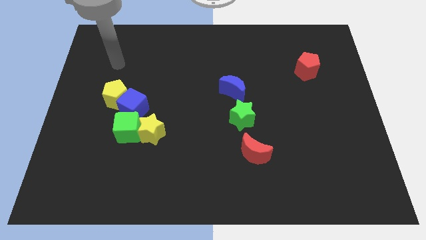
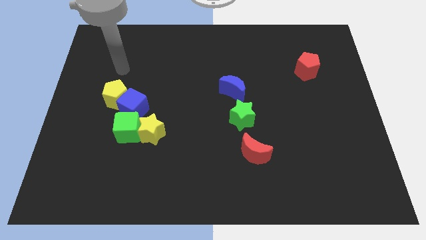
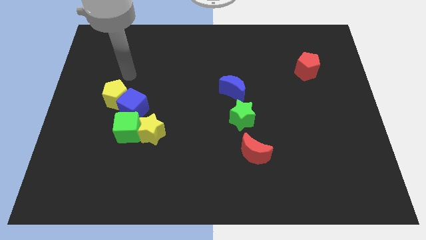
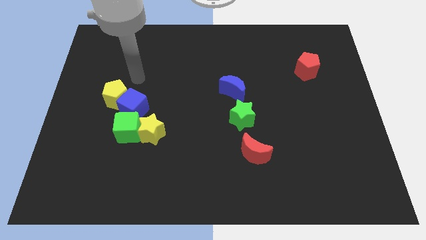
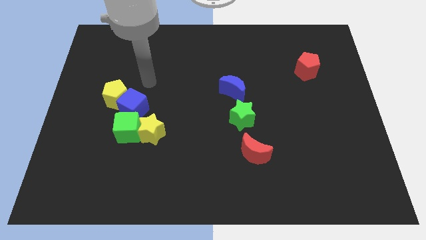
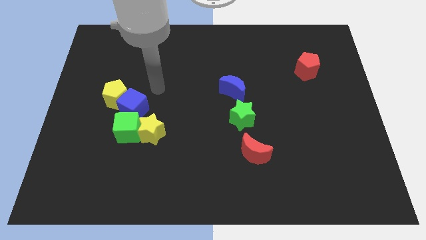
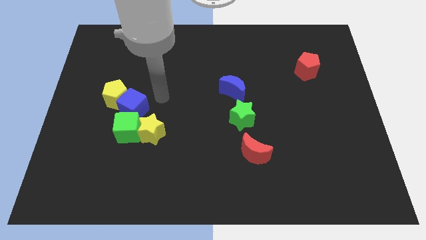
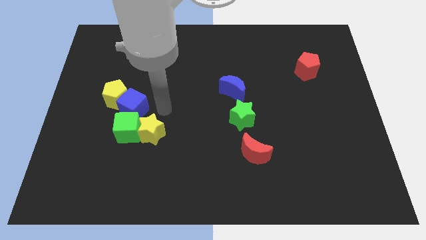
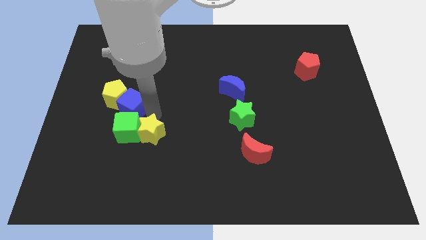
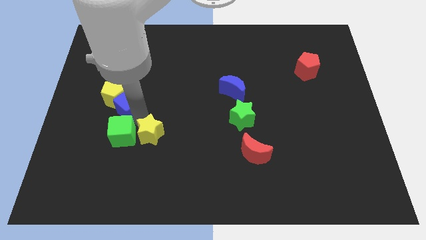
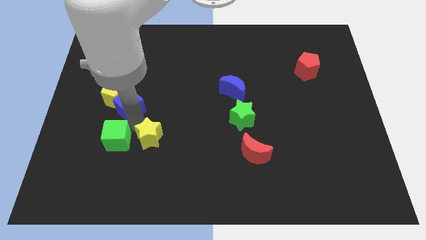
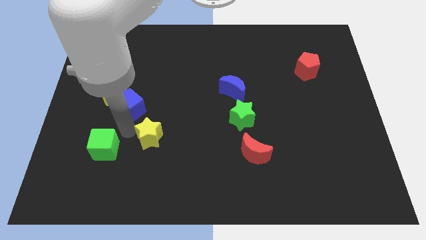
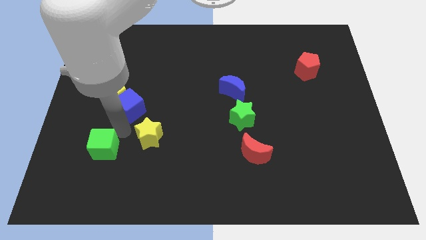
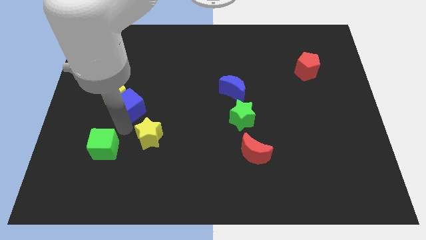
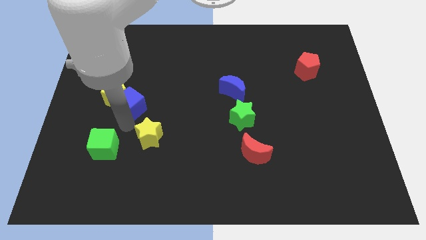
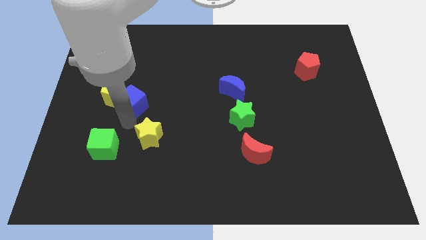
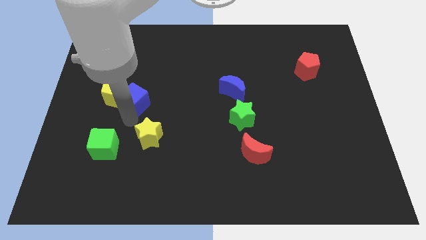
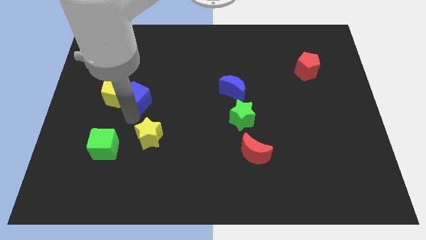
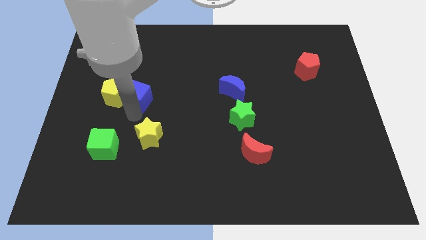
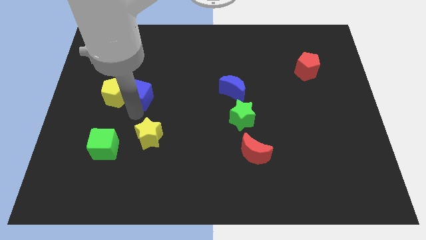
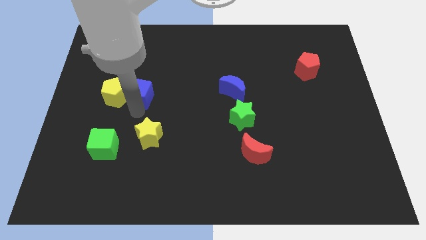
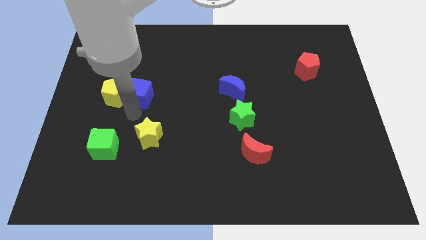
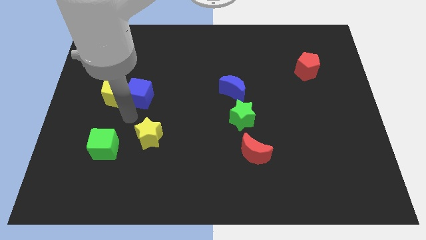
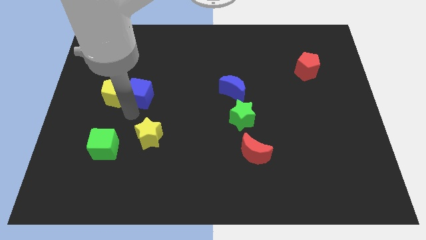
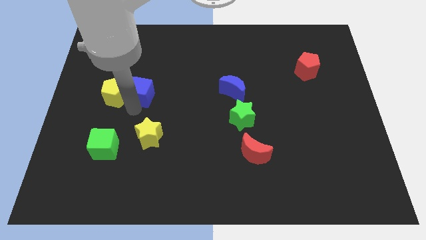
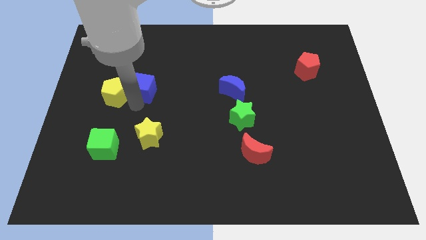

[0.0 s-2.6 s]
separate the blue cube from the yellow pentagon, green cube, and yellow star

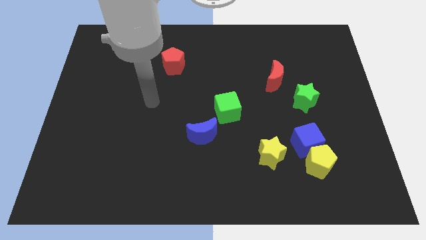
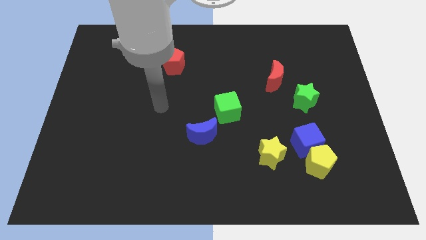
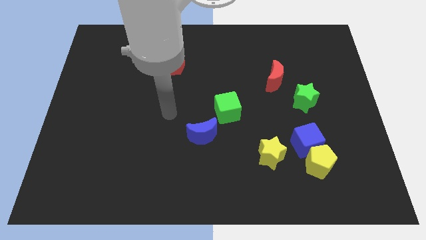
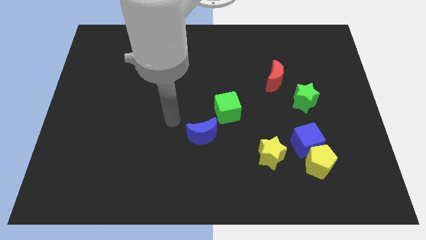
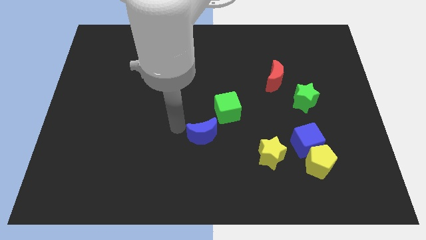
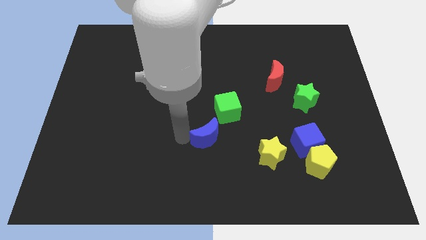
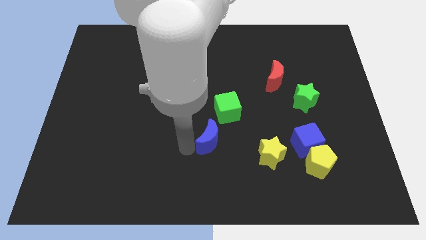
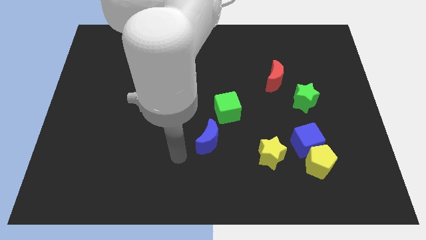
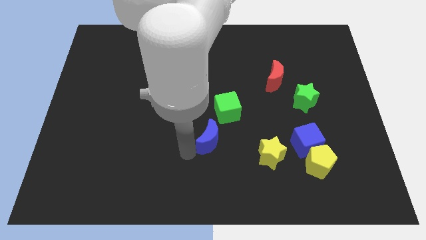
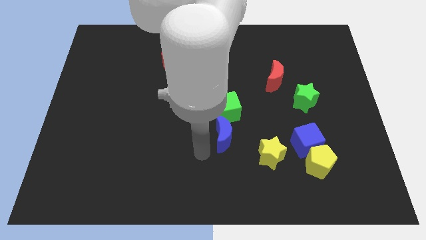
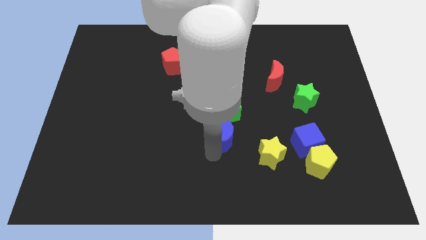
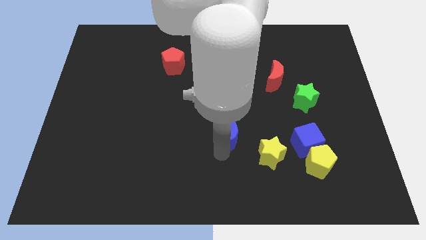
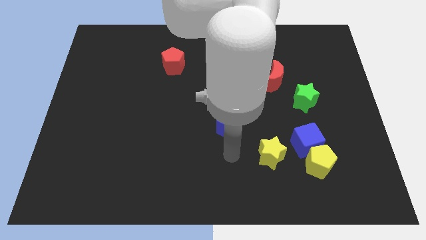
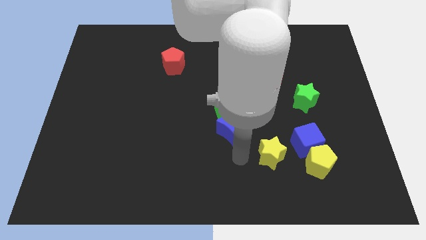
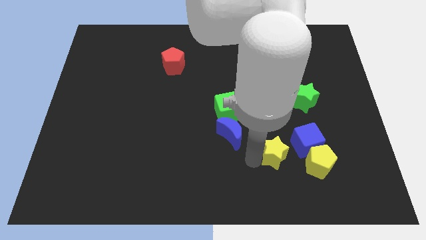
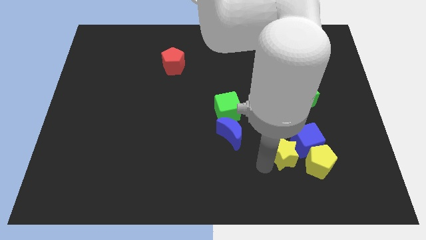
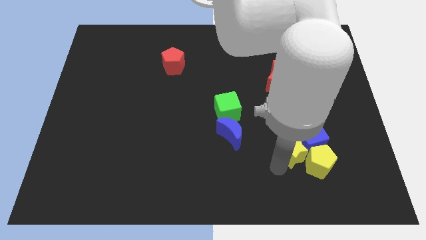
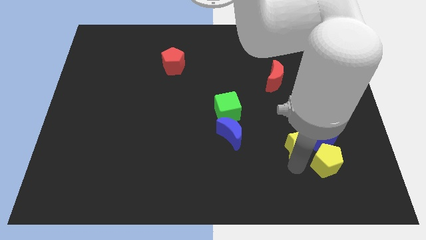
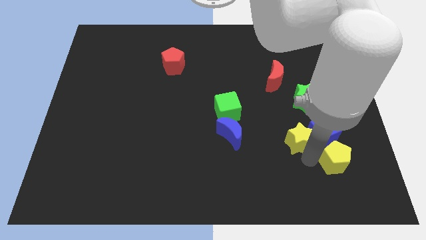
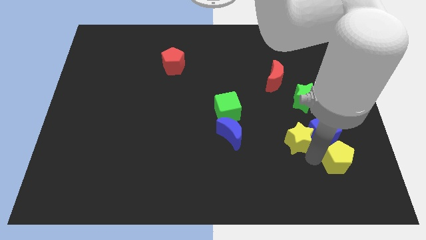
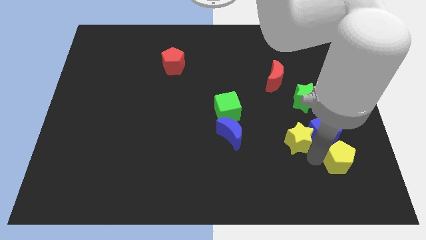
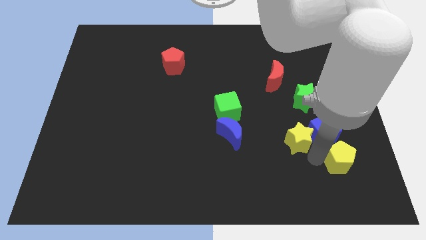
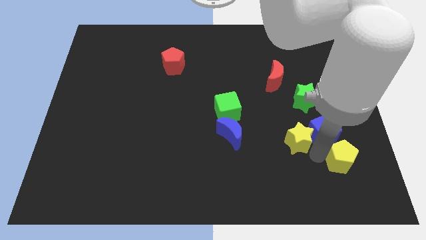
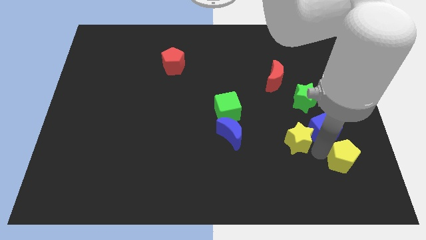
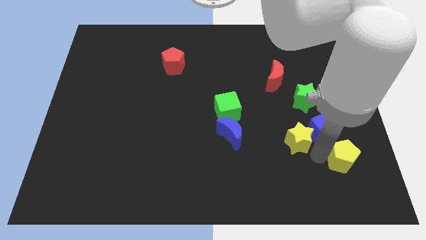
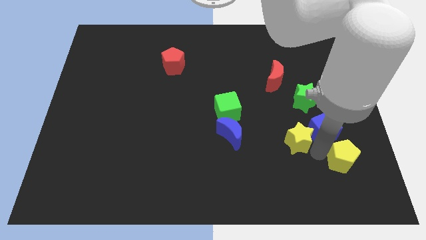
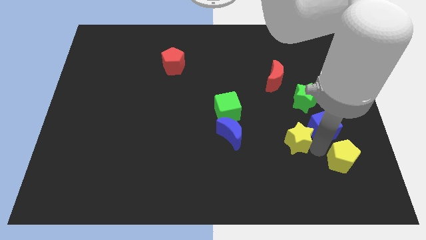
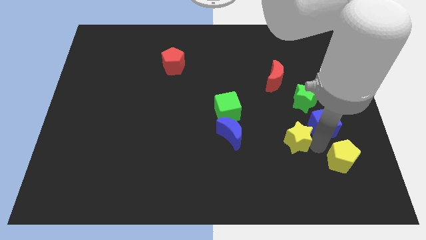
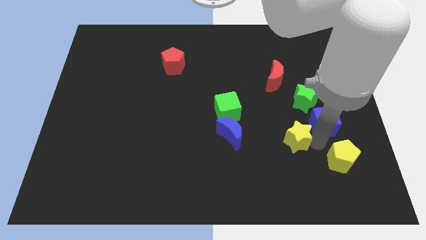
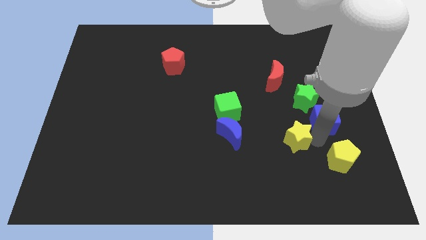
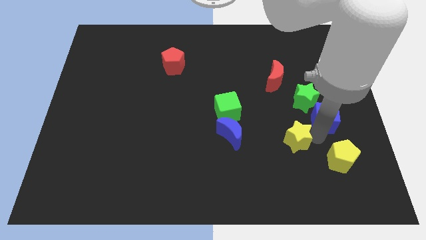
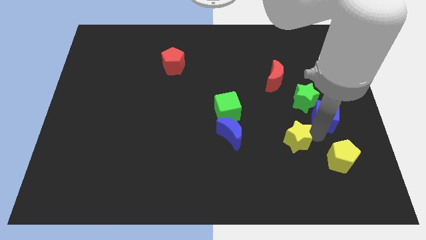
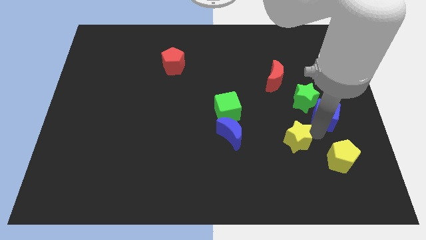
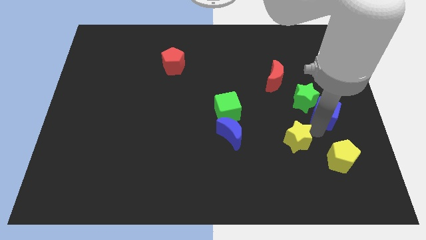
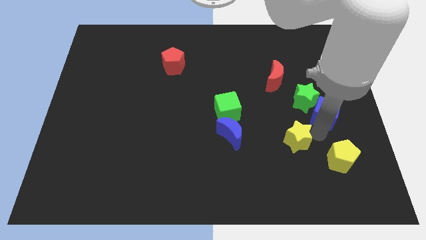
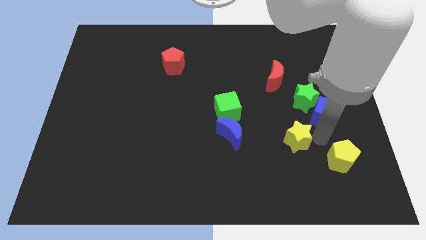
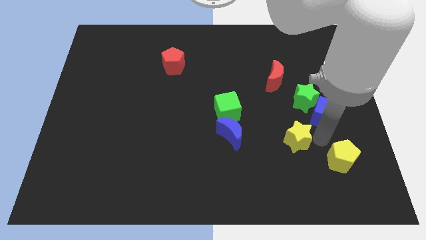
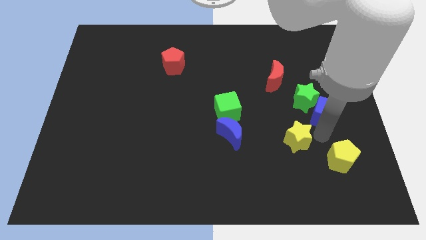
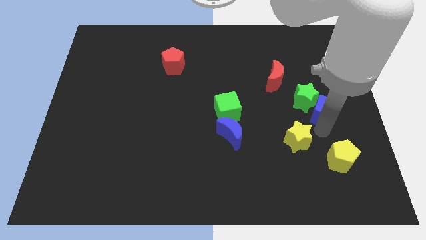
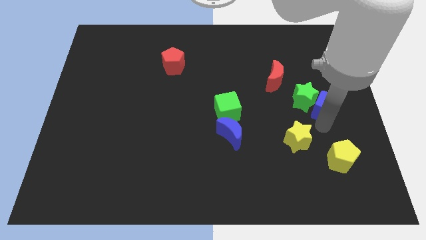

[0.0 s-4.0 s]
move the blue cube away from the yellow pentagon and yellow star

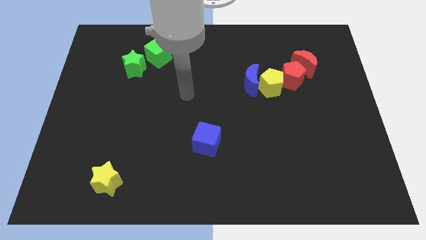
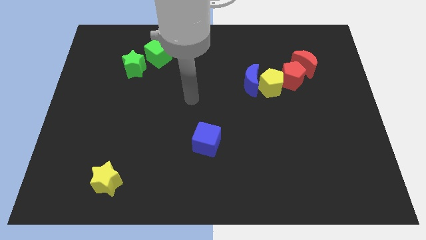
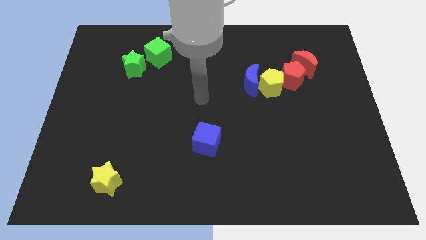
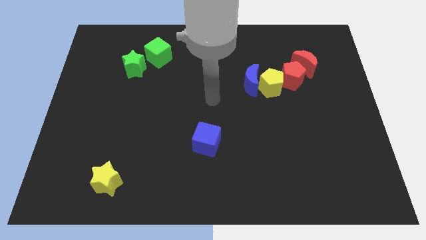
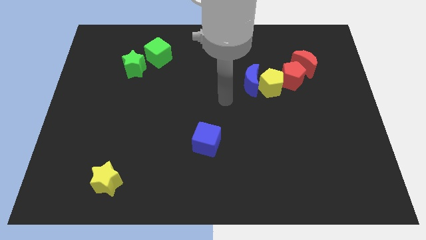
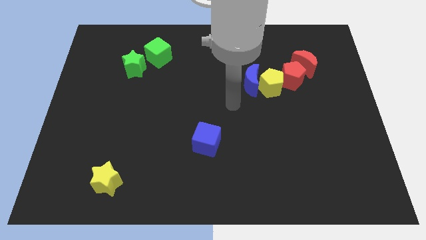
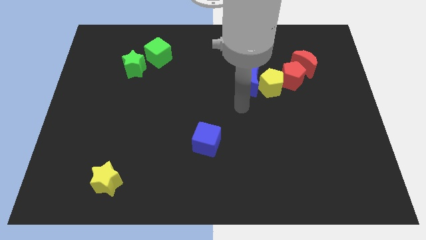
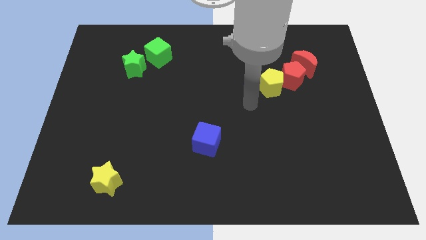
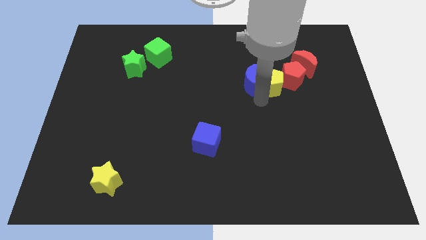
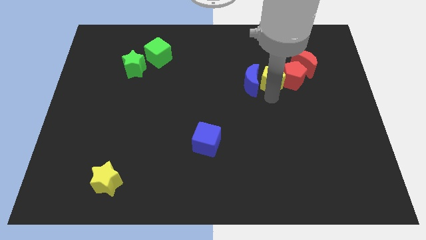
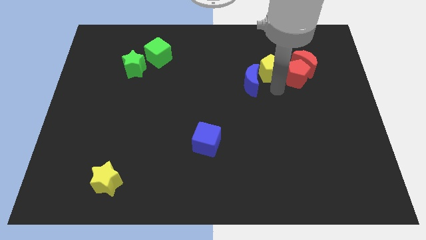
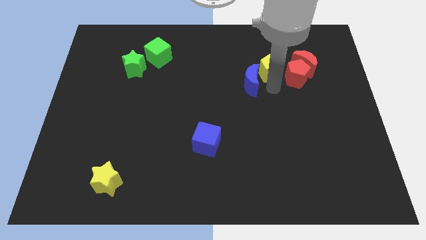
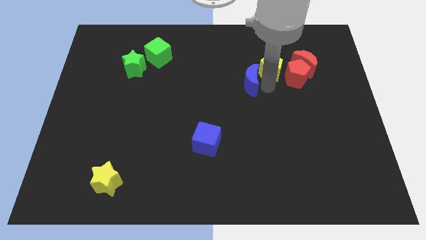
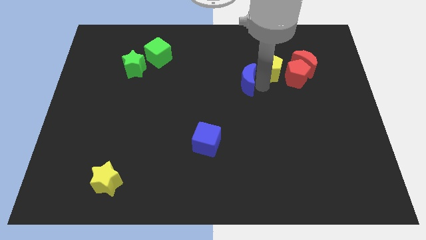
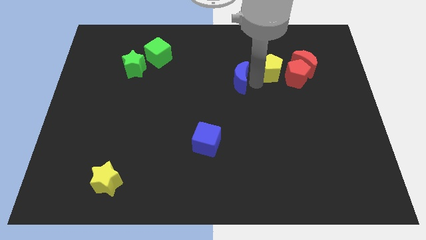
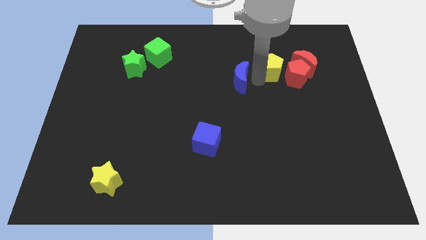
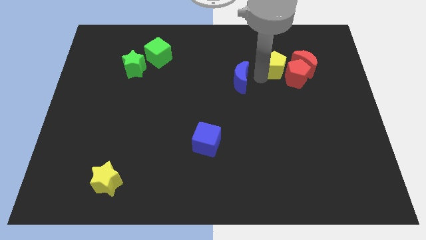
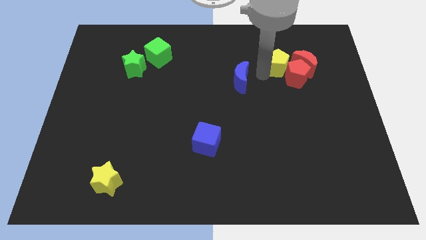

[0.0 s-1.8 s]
pull the blue moon apart from the yellow pentagon

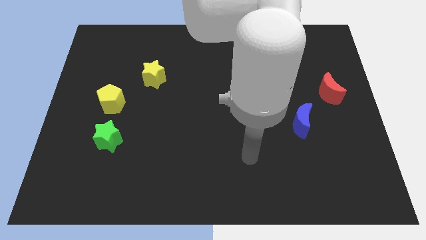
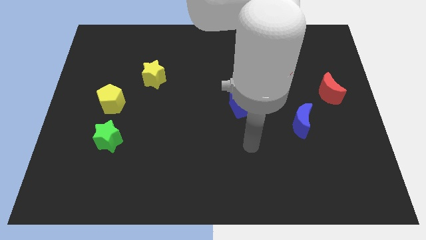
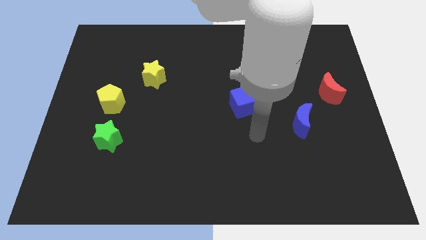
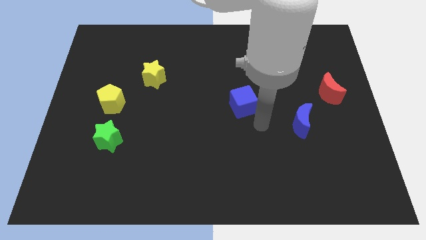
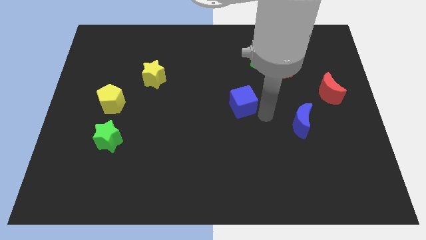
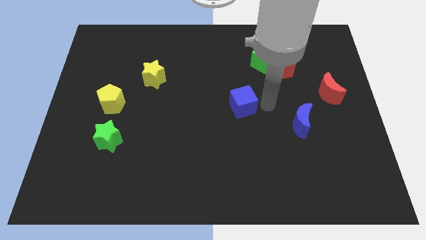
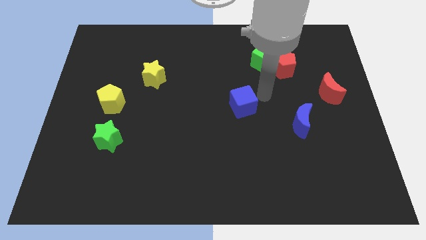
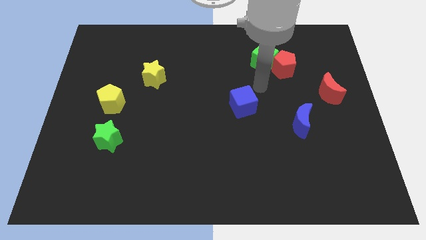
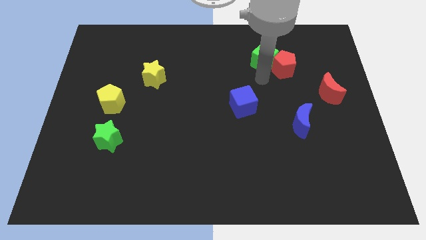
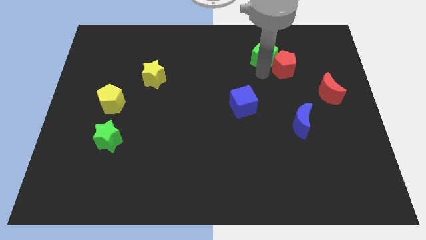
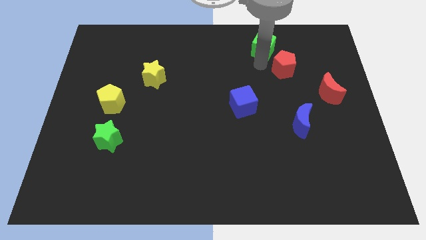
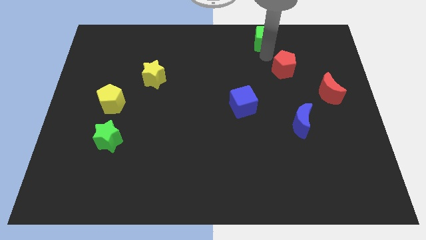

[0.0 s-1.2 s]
move the red pentagon away from the green cube

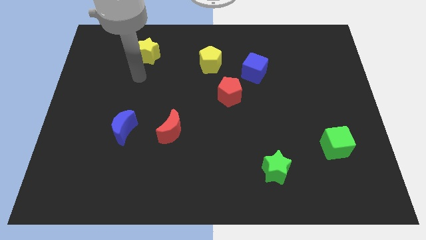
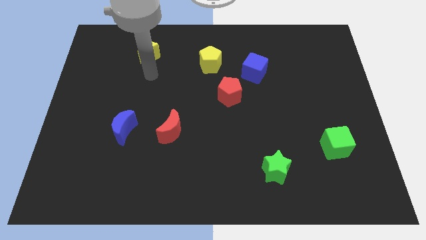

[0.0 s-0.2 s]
separate the red pentagon from the blue cube
